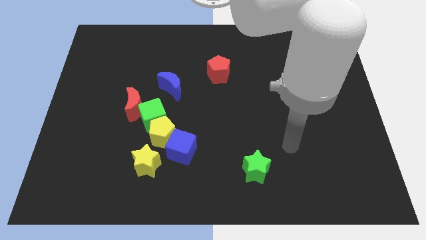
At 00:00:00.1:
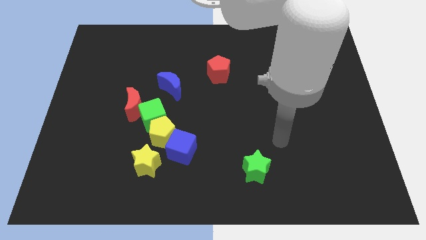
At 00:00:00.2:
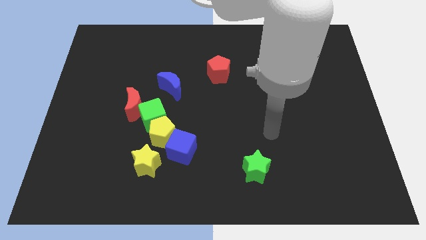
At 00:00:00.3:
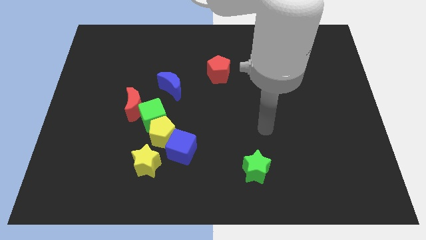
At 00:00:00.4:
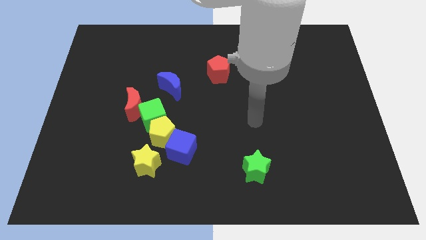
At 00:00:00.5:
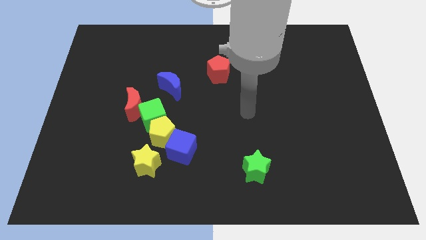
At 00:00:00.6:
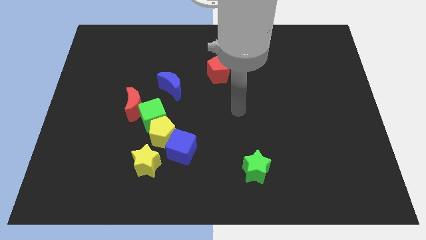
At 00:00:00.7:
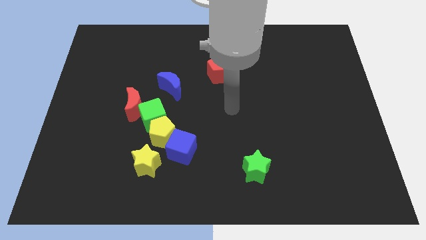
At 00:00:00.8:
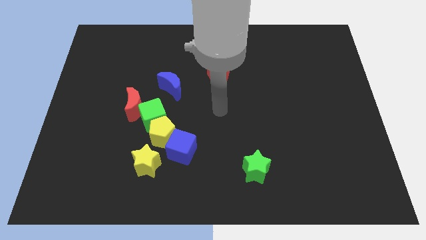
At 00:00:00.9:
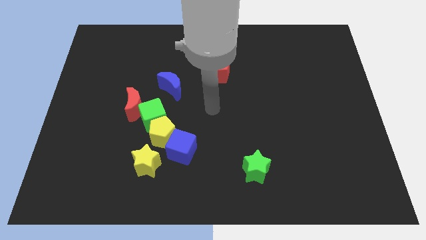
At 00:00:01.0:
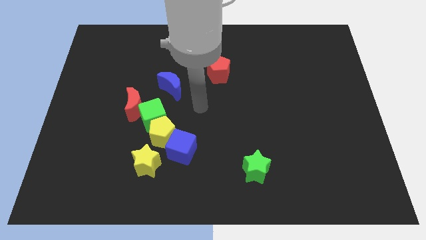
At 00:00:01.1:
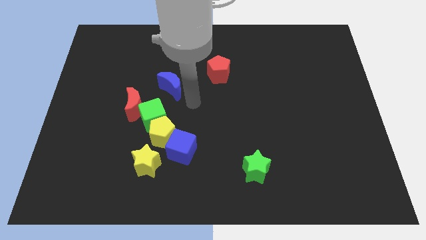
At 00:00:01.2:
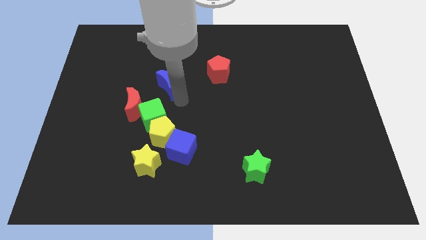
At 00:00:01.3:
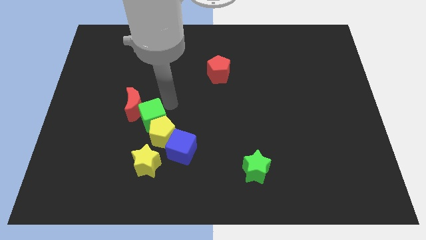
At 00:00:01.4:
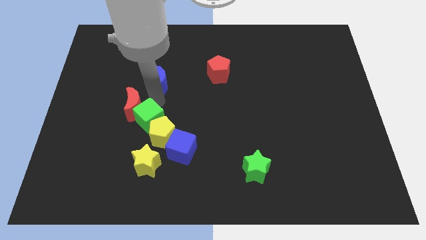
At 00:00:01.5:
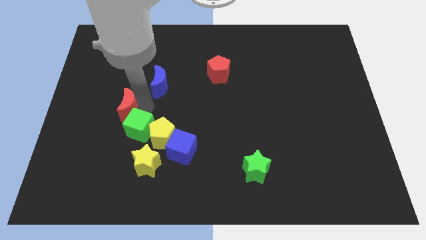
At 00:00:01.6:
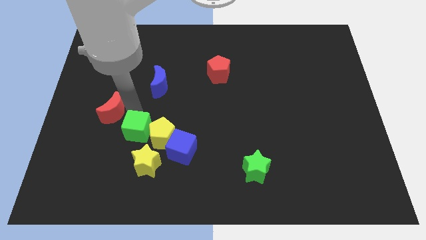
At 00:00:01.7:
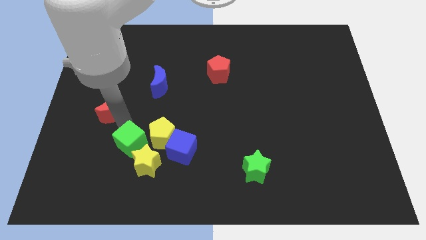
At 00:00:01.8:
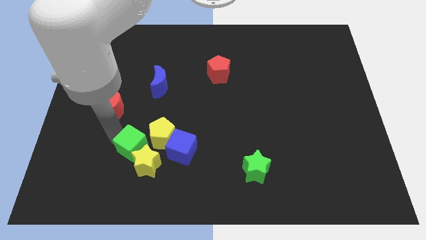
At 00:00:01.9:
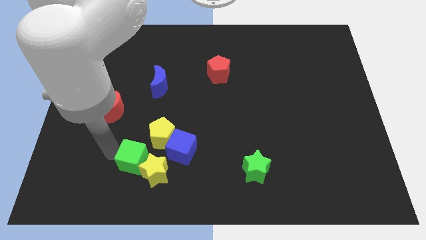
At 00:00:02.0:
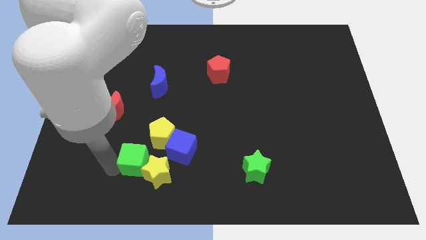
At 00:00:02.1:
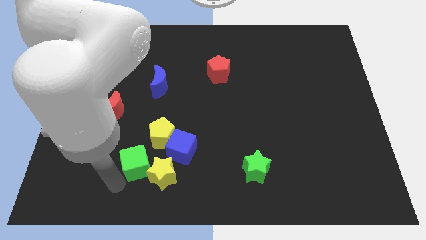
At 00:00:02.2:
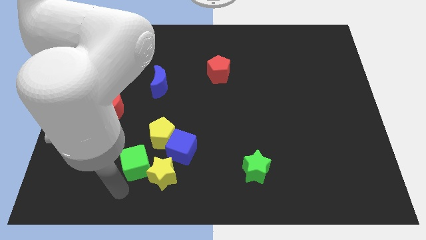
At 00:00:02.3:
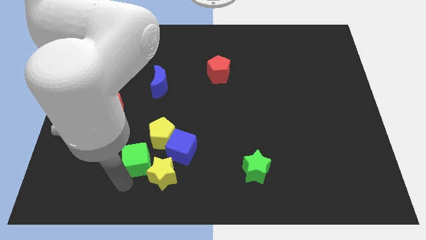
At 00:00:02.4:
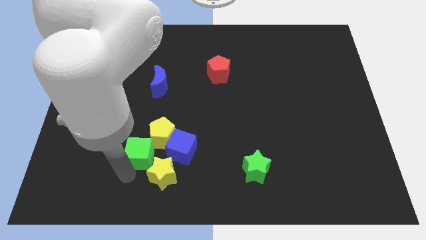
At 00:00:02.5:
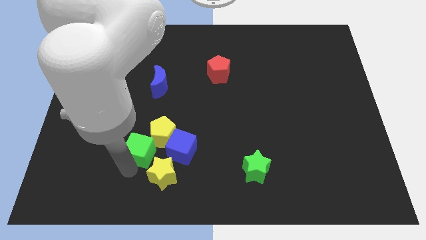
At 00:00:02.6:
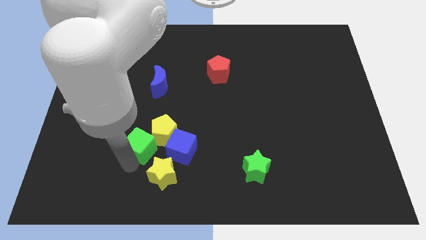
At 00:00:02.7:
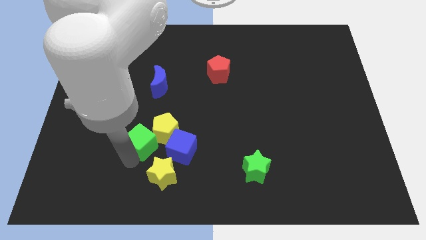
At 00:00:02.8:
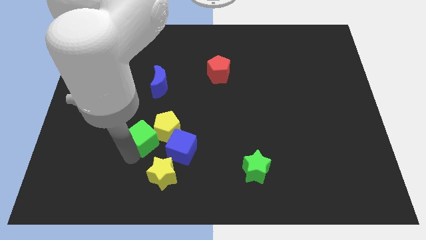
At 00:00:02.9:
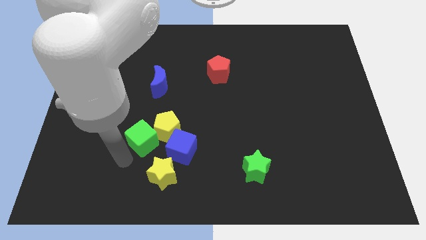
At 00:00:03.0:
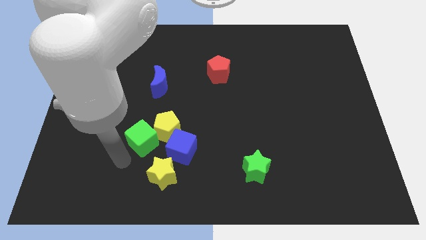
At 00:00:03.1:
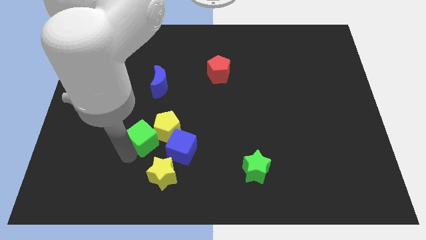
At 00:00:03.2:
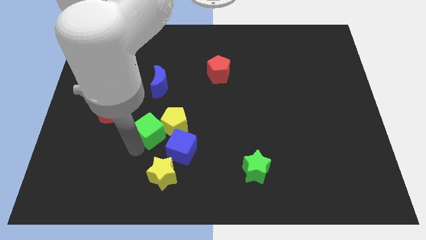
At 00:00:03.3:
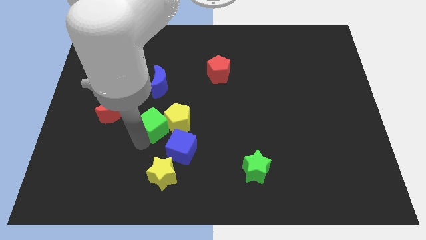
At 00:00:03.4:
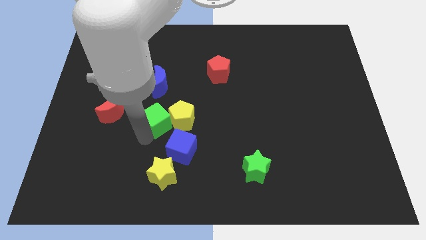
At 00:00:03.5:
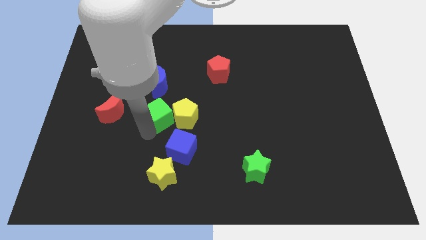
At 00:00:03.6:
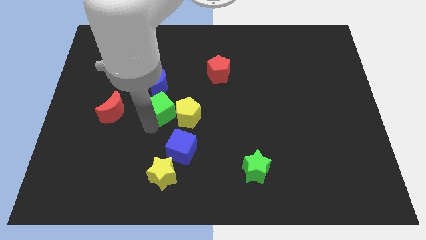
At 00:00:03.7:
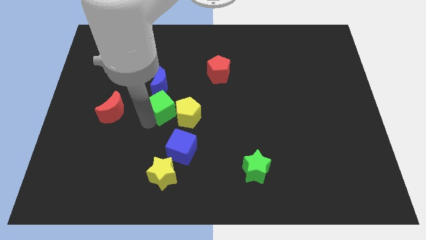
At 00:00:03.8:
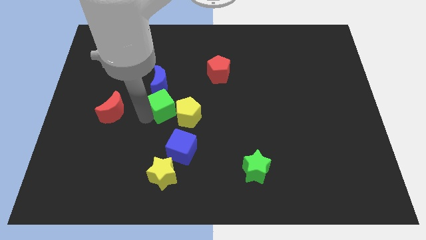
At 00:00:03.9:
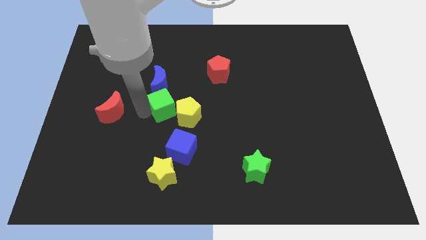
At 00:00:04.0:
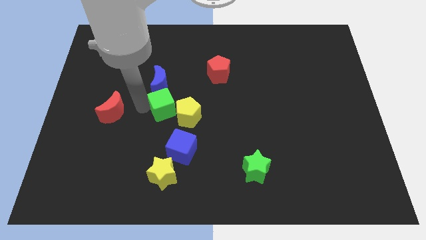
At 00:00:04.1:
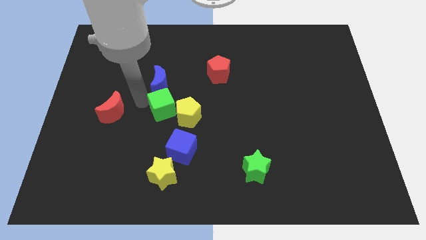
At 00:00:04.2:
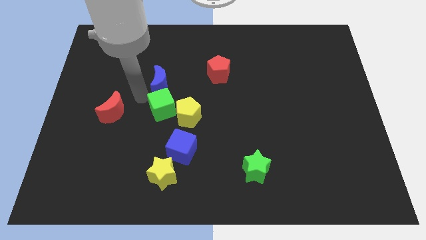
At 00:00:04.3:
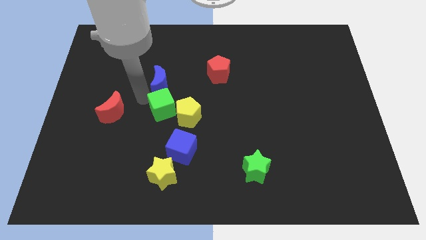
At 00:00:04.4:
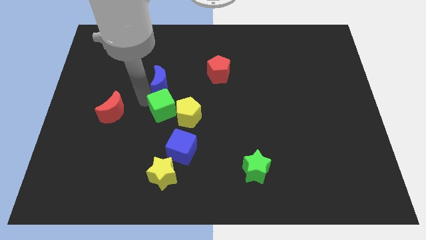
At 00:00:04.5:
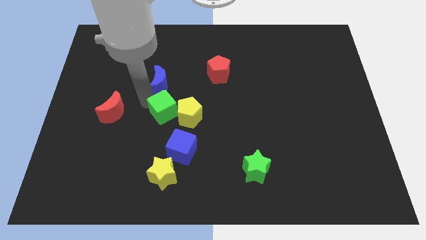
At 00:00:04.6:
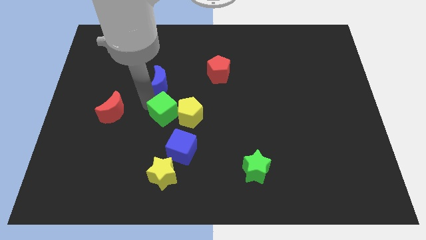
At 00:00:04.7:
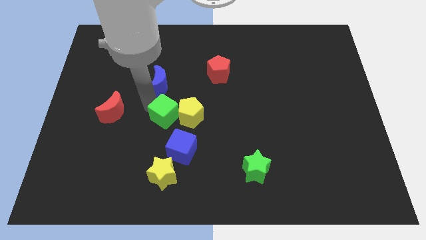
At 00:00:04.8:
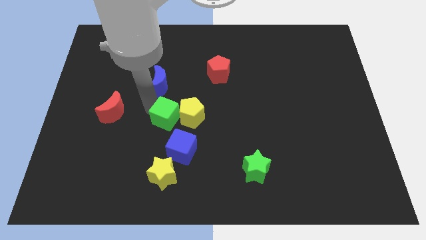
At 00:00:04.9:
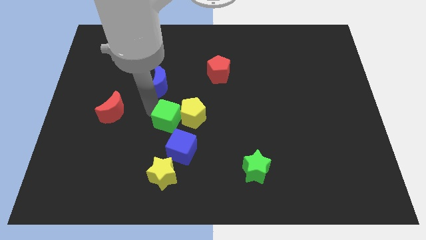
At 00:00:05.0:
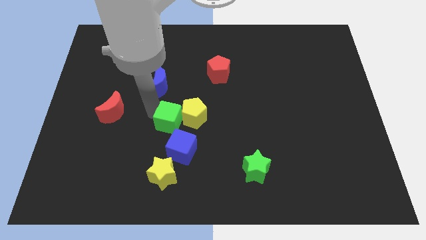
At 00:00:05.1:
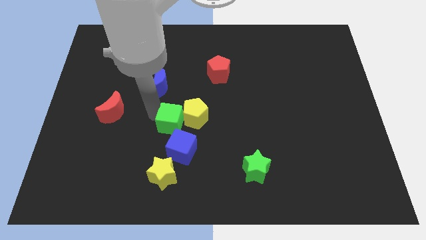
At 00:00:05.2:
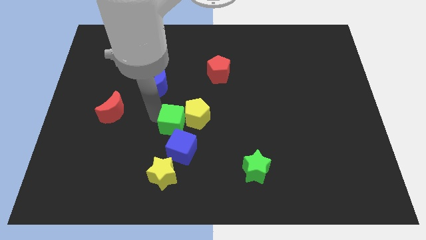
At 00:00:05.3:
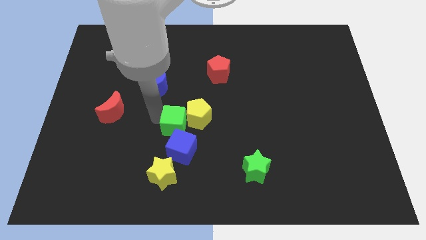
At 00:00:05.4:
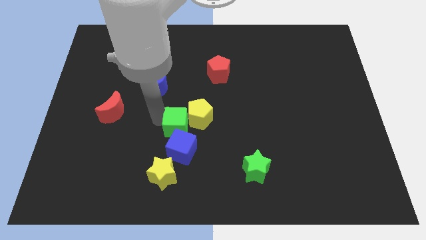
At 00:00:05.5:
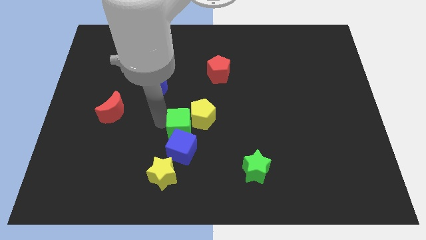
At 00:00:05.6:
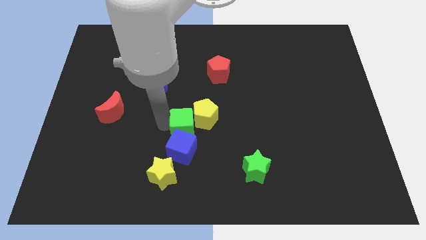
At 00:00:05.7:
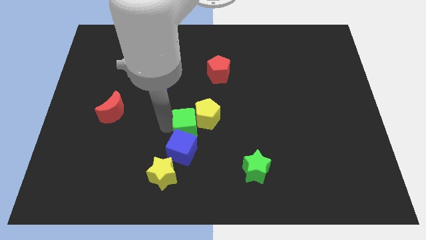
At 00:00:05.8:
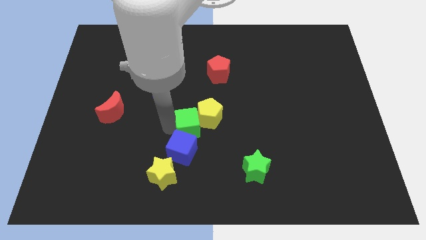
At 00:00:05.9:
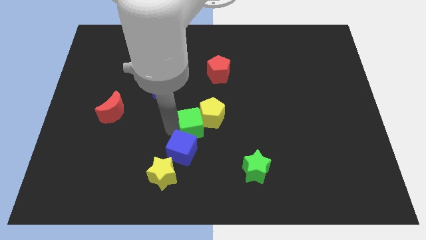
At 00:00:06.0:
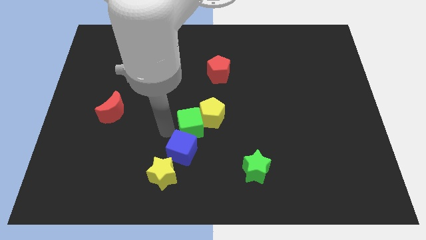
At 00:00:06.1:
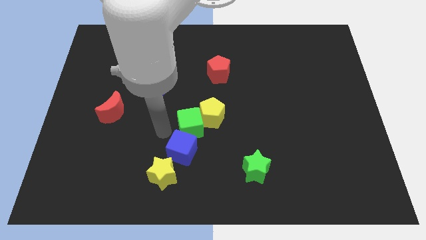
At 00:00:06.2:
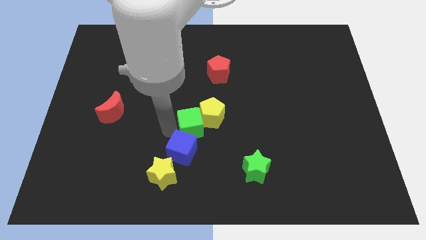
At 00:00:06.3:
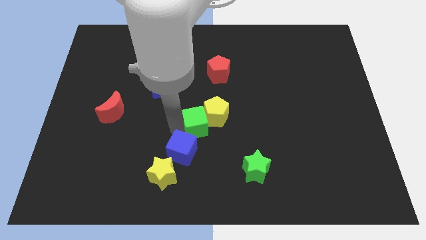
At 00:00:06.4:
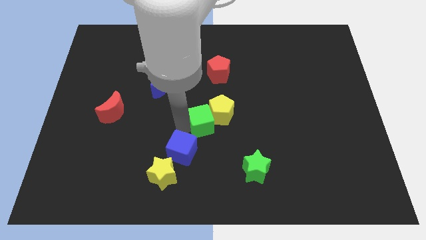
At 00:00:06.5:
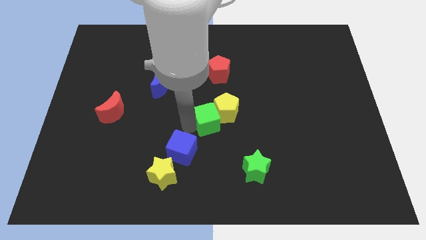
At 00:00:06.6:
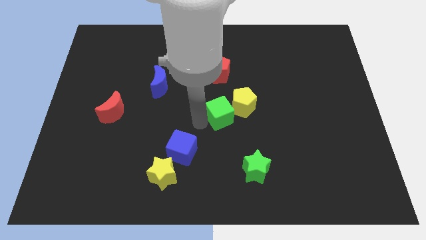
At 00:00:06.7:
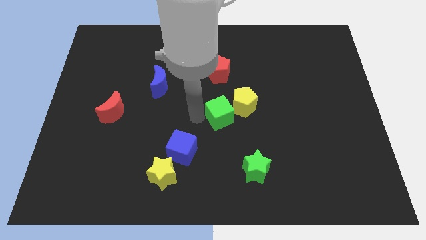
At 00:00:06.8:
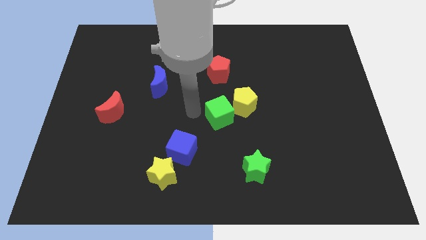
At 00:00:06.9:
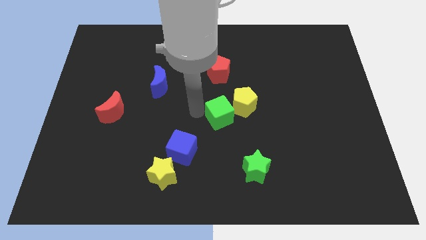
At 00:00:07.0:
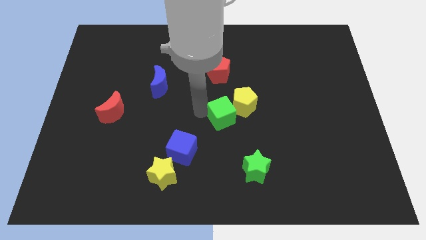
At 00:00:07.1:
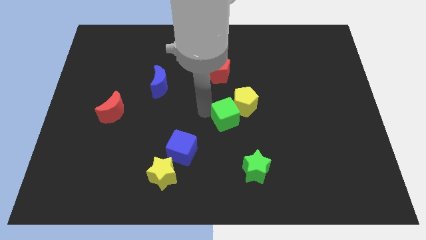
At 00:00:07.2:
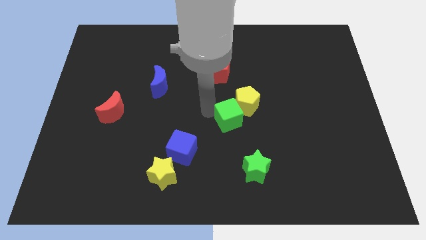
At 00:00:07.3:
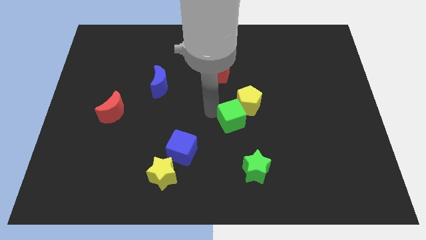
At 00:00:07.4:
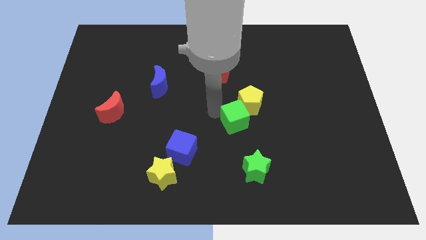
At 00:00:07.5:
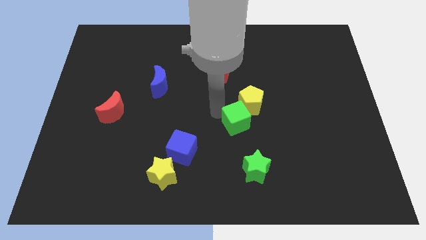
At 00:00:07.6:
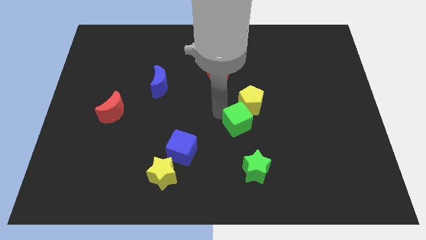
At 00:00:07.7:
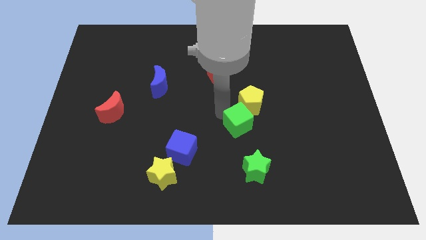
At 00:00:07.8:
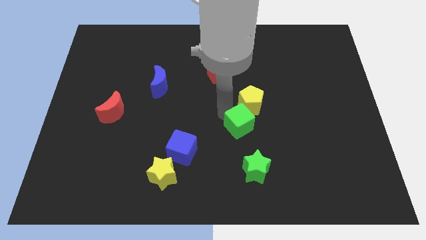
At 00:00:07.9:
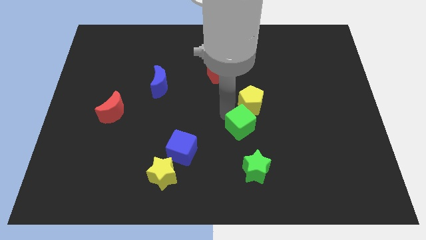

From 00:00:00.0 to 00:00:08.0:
move the green cube right
